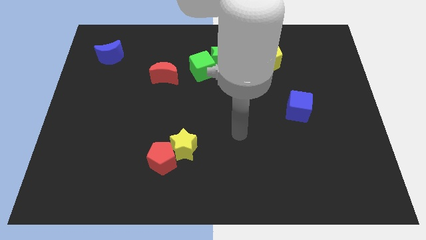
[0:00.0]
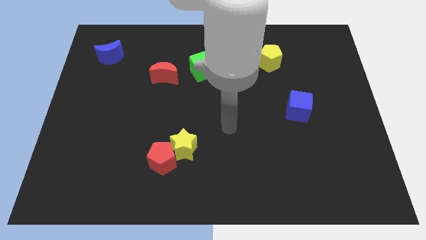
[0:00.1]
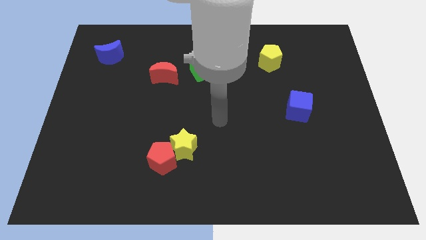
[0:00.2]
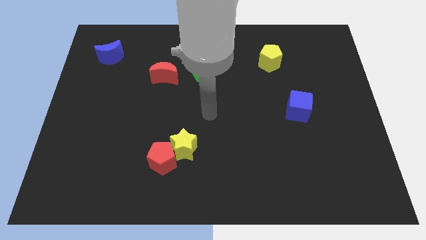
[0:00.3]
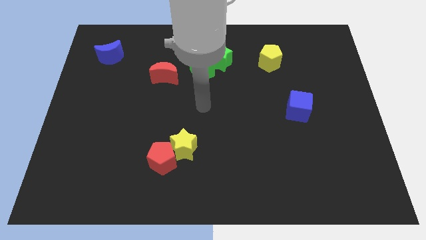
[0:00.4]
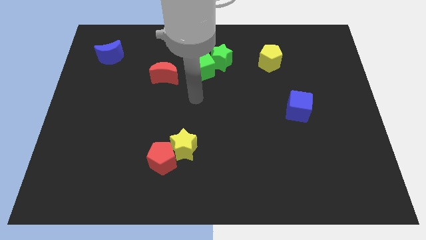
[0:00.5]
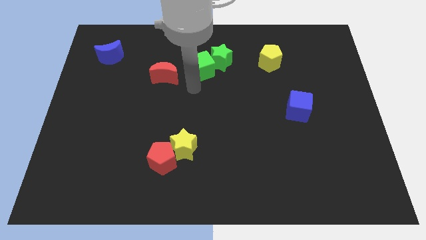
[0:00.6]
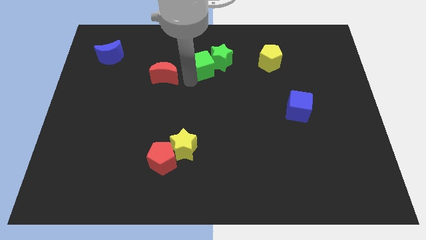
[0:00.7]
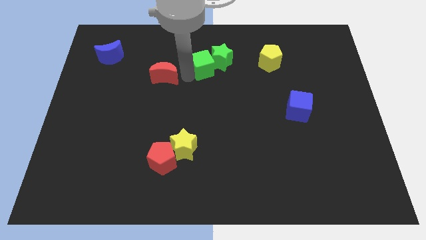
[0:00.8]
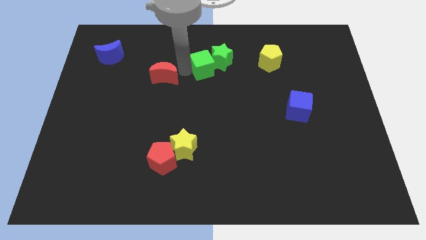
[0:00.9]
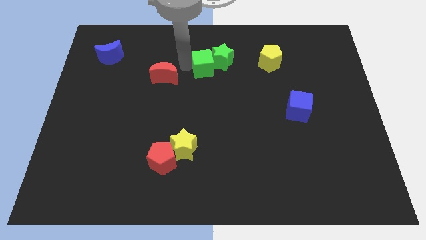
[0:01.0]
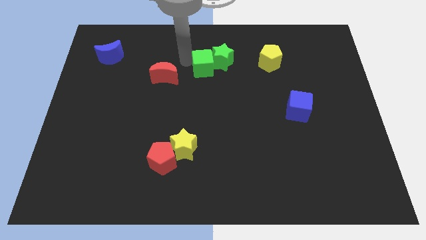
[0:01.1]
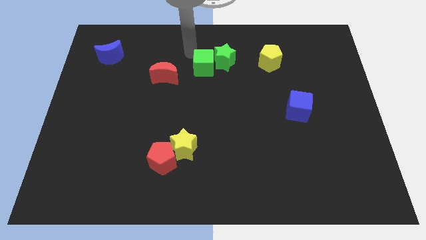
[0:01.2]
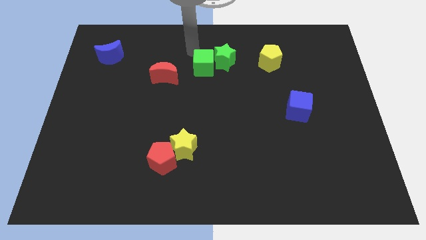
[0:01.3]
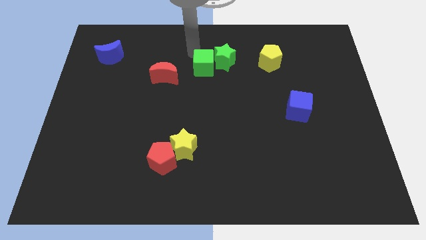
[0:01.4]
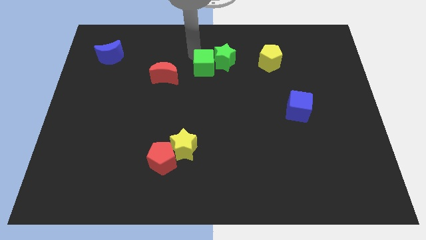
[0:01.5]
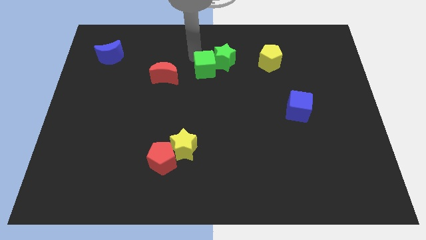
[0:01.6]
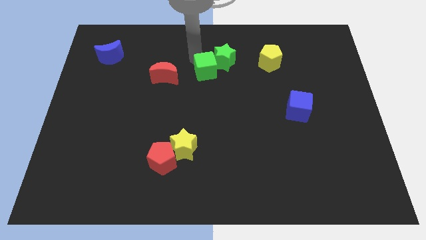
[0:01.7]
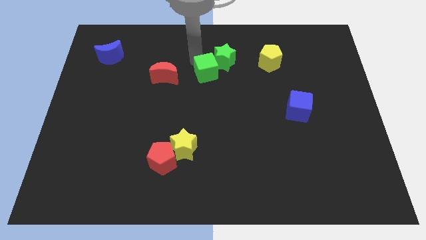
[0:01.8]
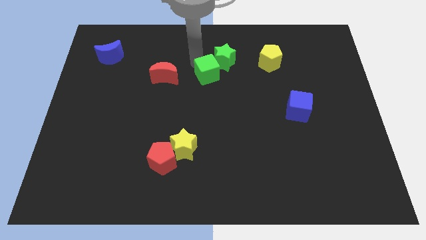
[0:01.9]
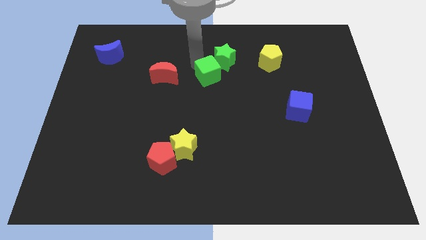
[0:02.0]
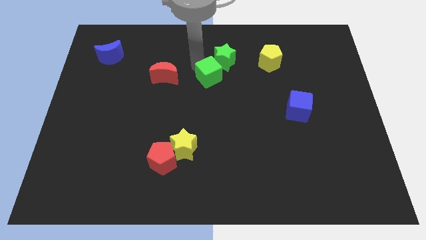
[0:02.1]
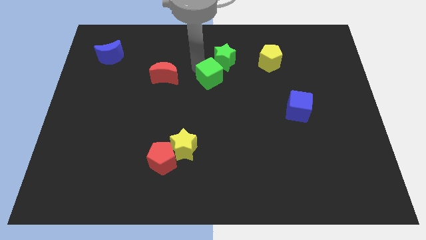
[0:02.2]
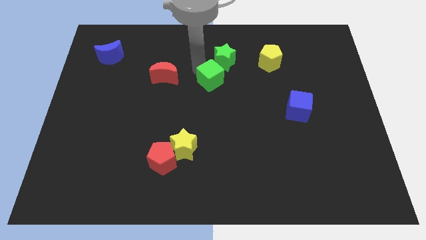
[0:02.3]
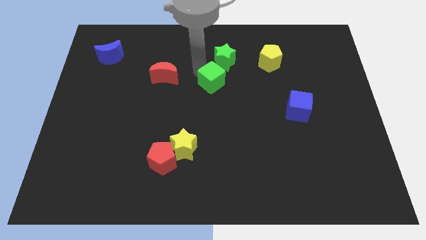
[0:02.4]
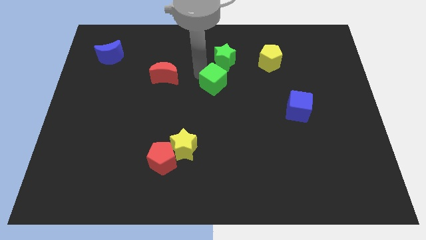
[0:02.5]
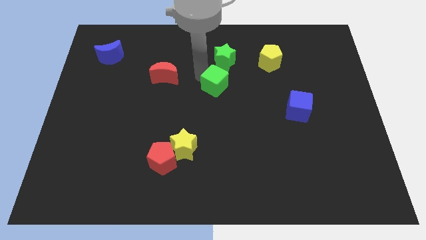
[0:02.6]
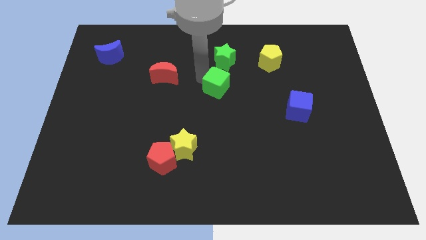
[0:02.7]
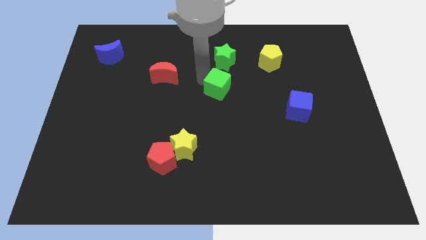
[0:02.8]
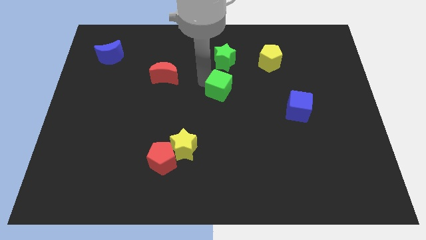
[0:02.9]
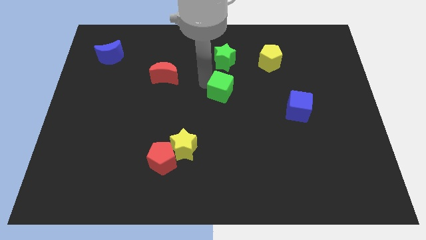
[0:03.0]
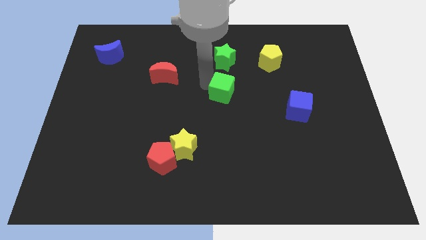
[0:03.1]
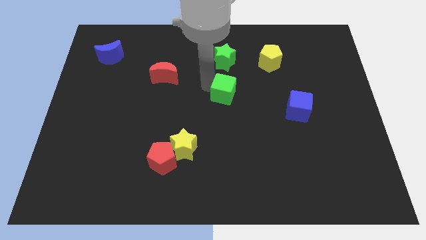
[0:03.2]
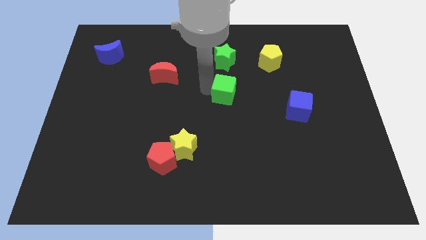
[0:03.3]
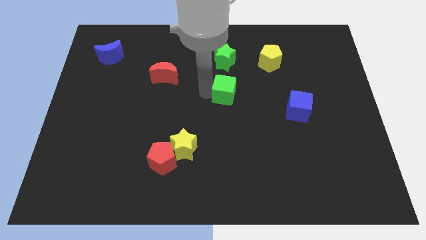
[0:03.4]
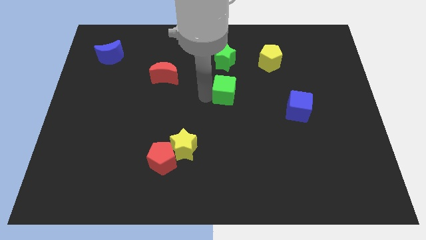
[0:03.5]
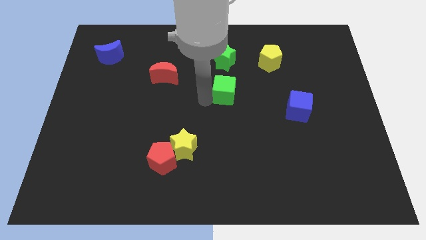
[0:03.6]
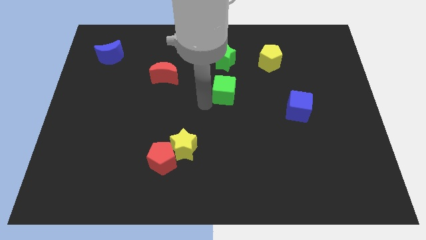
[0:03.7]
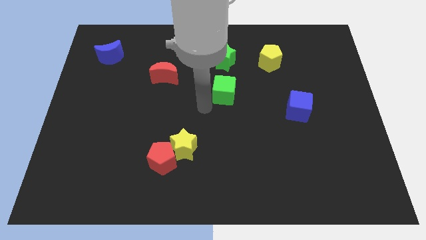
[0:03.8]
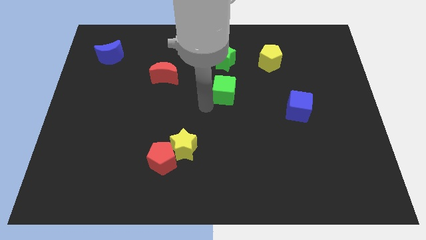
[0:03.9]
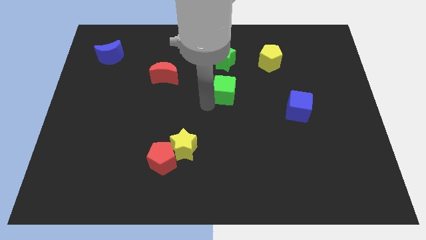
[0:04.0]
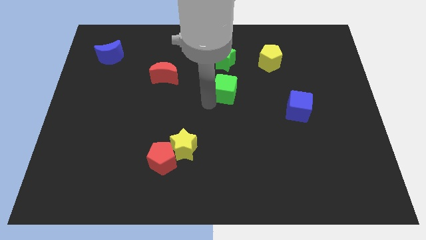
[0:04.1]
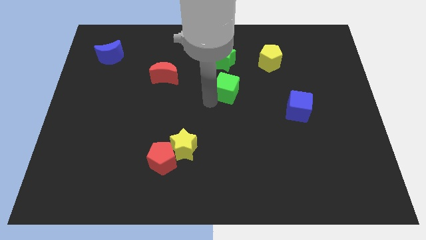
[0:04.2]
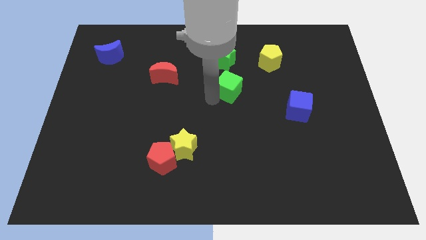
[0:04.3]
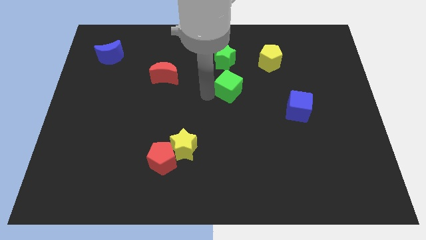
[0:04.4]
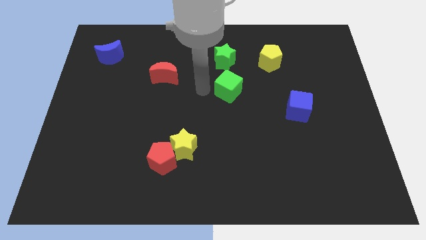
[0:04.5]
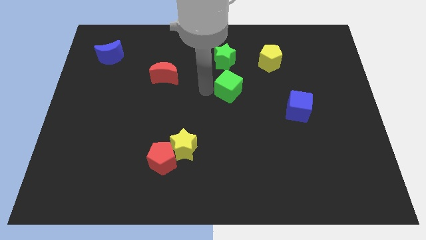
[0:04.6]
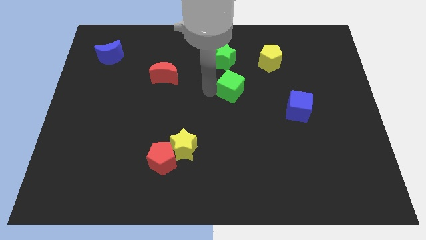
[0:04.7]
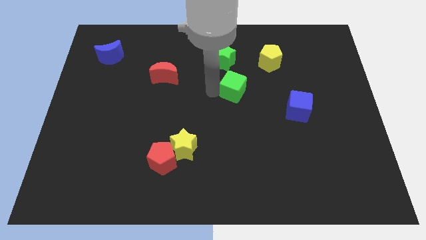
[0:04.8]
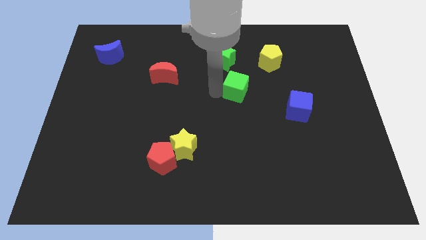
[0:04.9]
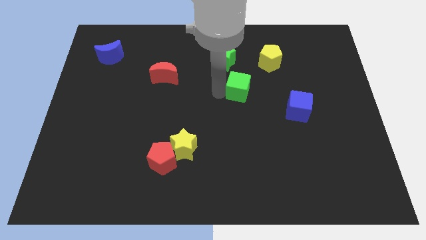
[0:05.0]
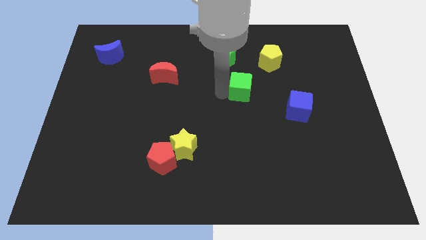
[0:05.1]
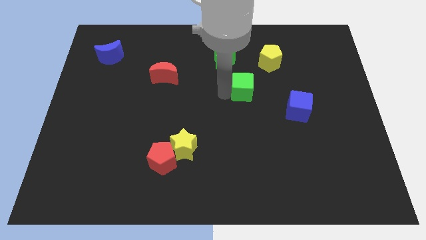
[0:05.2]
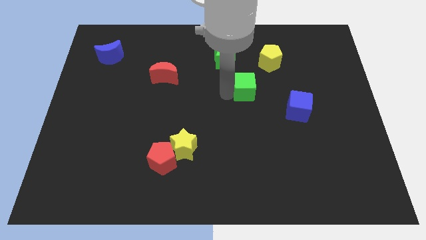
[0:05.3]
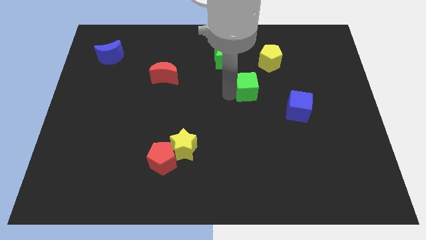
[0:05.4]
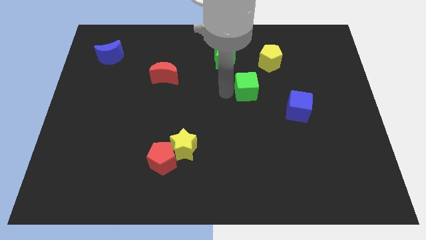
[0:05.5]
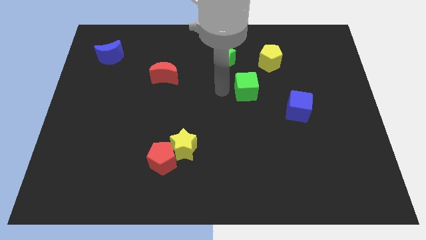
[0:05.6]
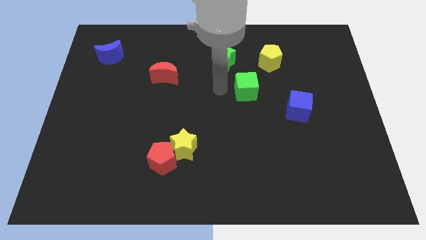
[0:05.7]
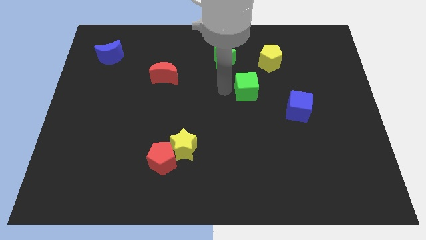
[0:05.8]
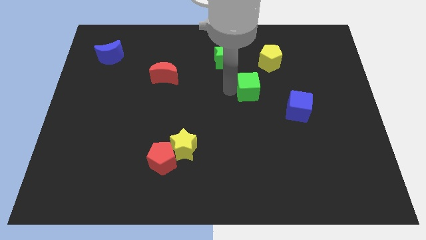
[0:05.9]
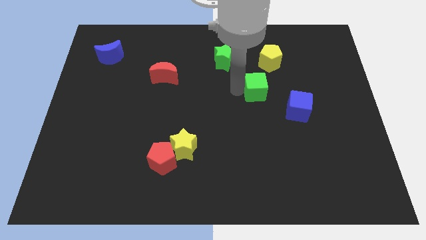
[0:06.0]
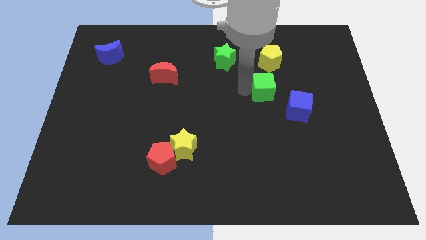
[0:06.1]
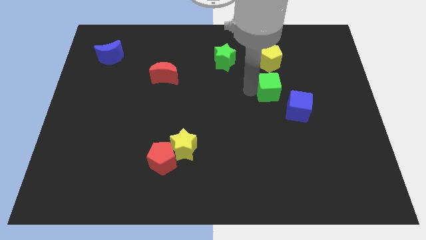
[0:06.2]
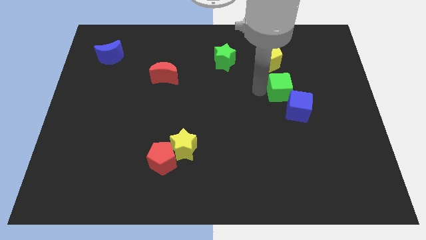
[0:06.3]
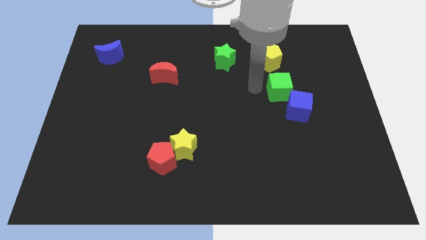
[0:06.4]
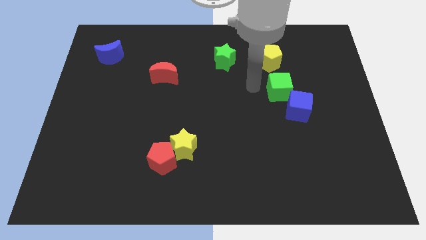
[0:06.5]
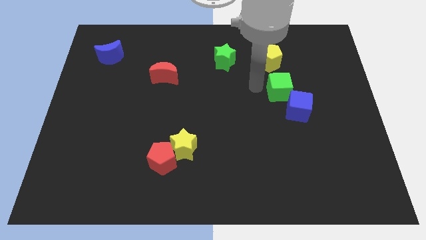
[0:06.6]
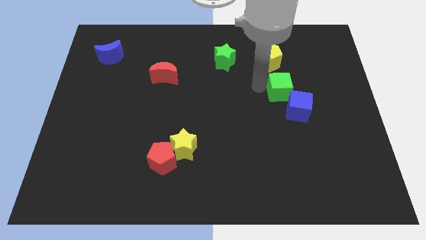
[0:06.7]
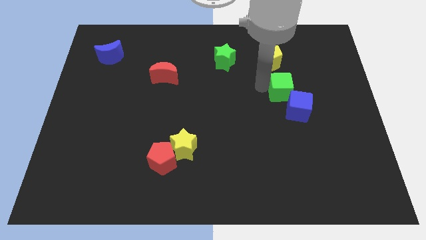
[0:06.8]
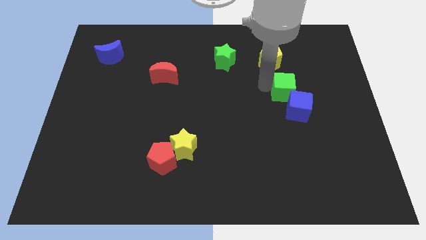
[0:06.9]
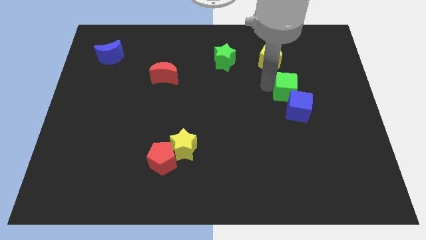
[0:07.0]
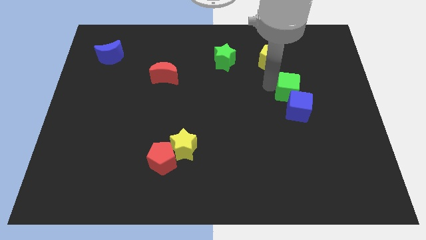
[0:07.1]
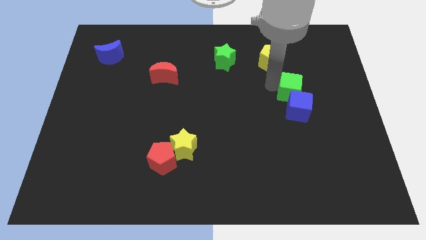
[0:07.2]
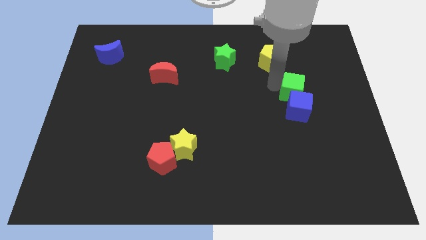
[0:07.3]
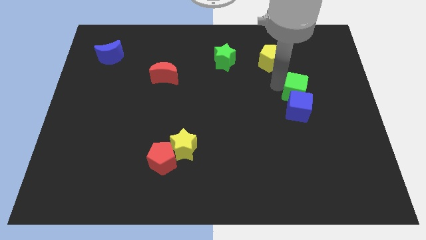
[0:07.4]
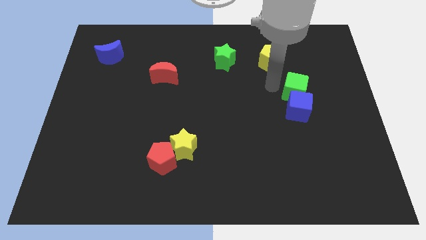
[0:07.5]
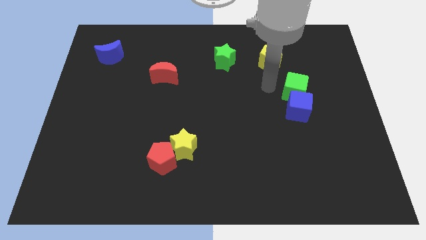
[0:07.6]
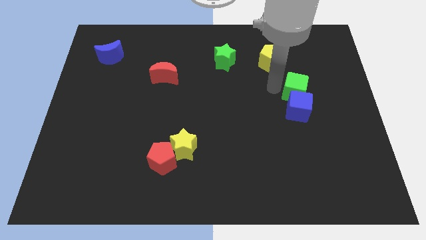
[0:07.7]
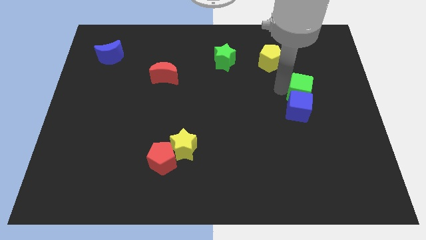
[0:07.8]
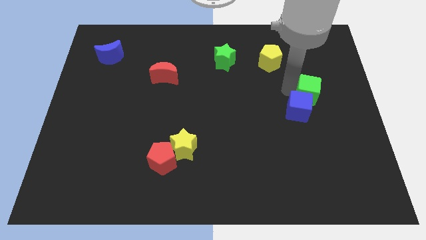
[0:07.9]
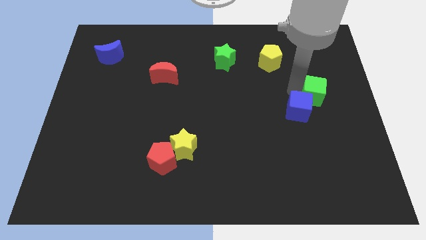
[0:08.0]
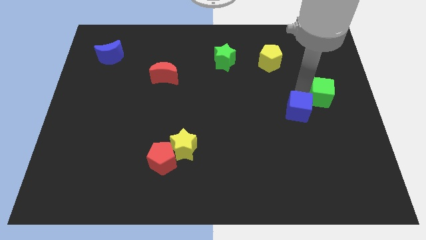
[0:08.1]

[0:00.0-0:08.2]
slide the green cube to the right side of the board
